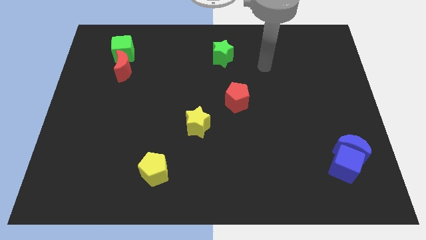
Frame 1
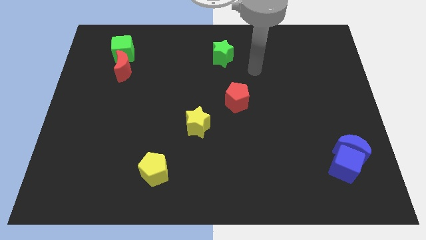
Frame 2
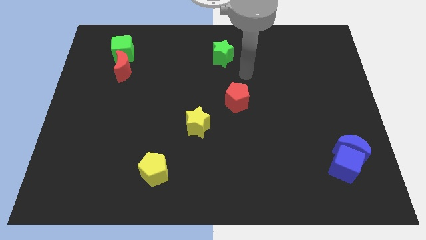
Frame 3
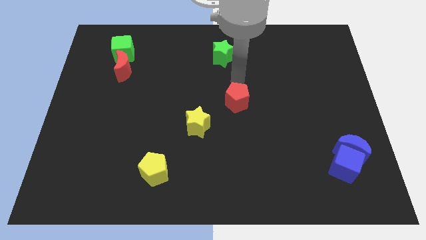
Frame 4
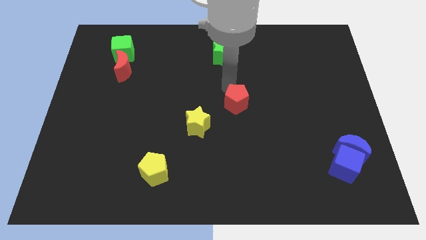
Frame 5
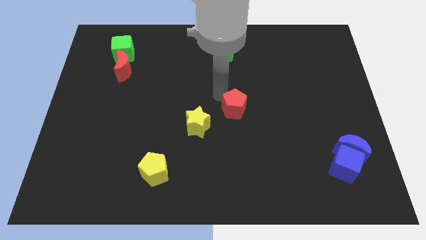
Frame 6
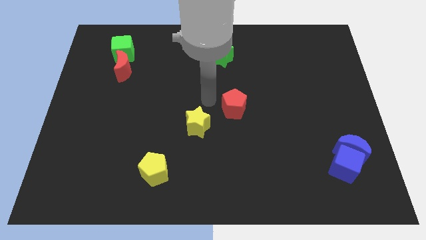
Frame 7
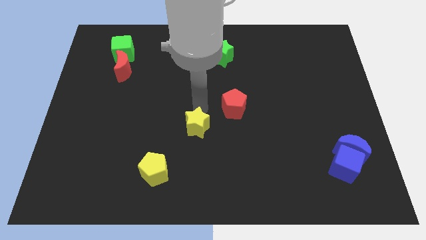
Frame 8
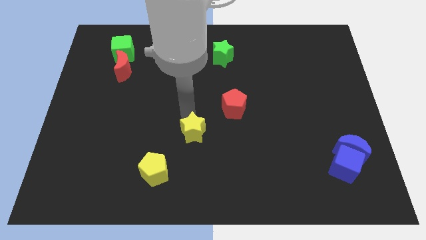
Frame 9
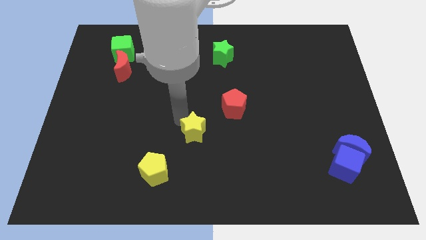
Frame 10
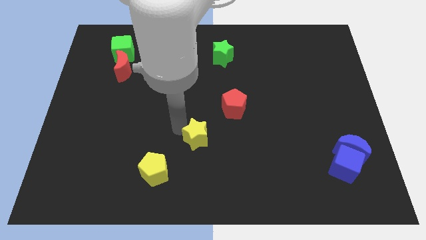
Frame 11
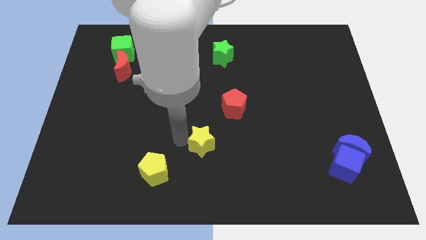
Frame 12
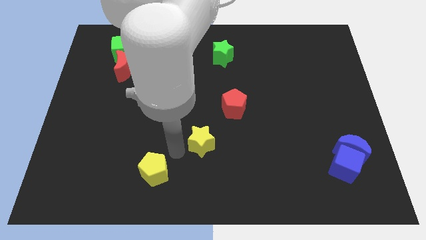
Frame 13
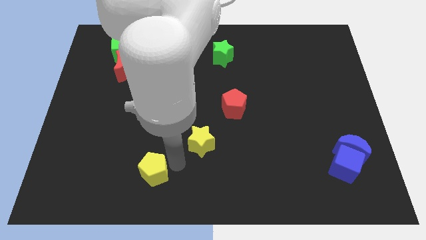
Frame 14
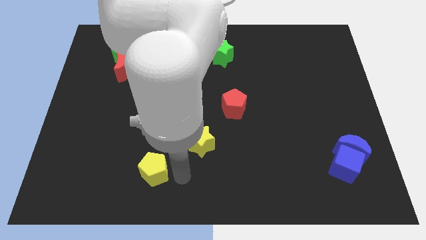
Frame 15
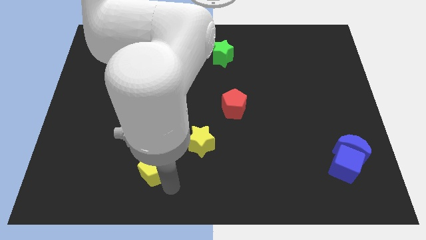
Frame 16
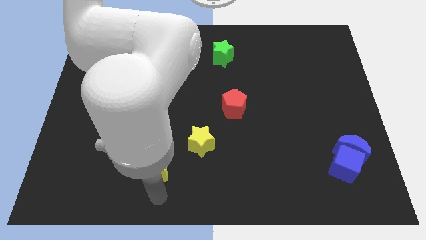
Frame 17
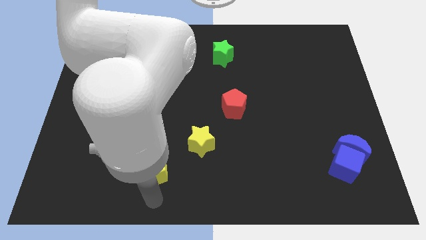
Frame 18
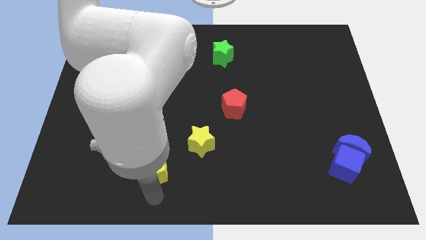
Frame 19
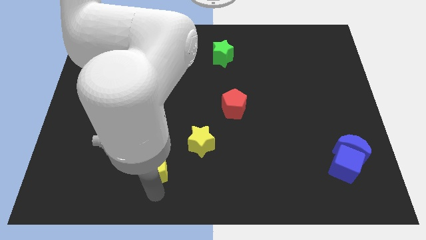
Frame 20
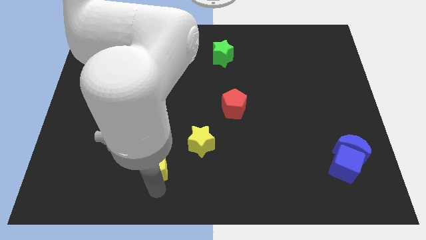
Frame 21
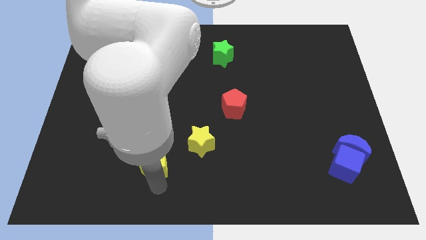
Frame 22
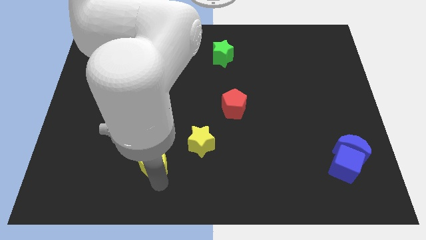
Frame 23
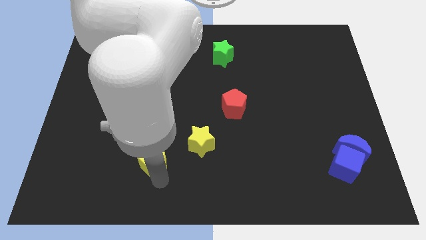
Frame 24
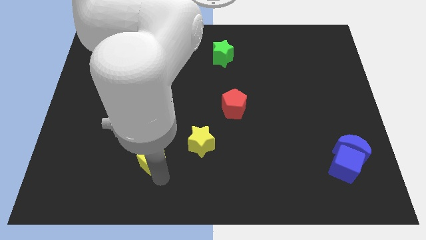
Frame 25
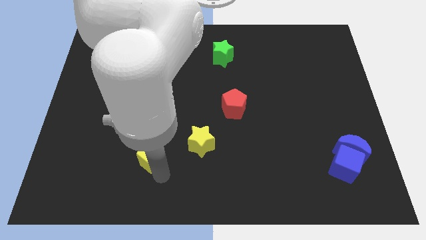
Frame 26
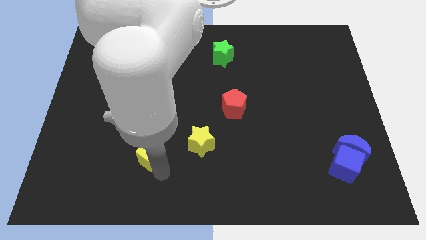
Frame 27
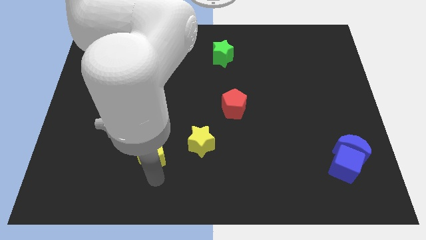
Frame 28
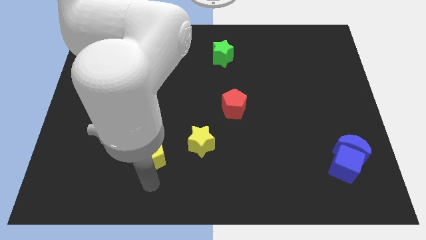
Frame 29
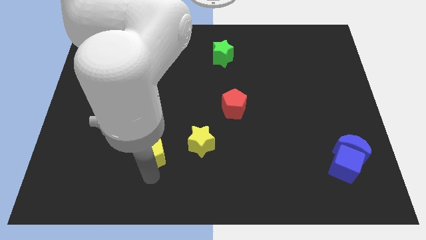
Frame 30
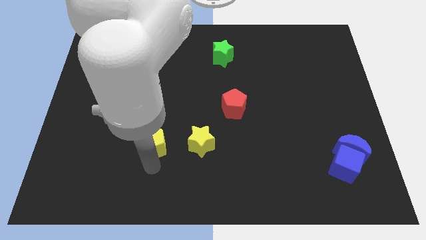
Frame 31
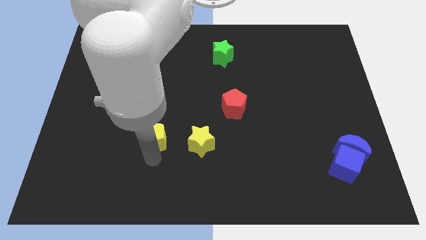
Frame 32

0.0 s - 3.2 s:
move the yellow pentagon upwards slightly

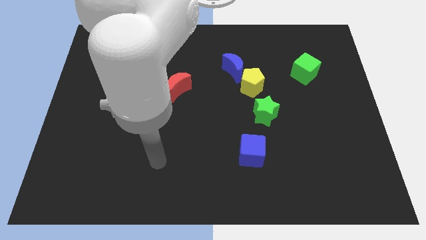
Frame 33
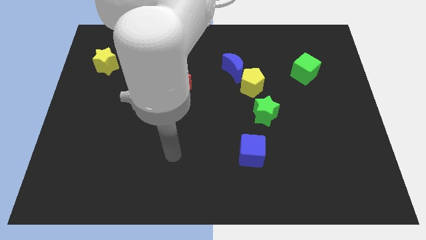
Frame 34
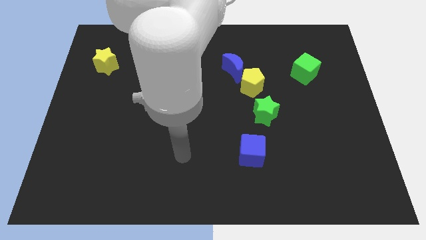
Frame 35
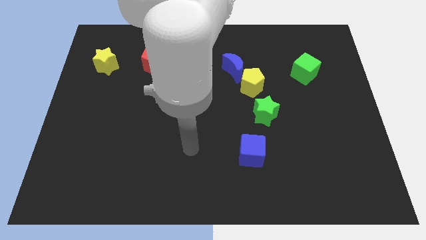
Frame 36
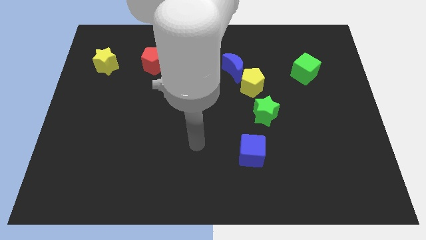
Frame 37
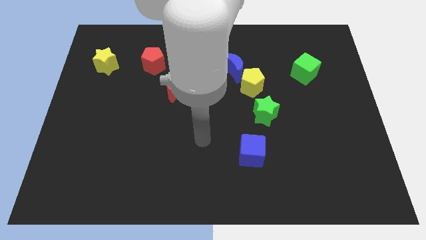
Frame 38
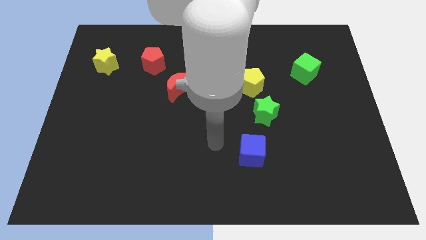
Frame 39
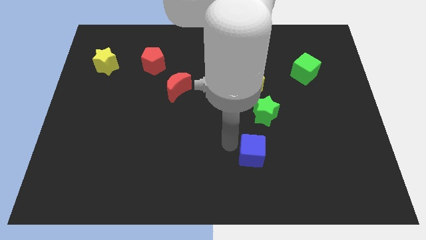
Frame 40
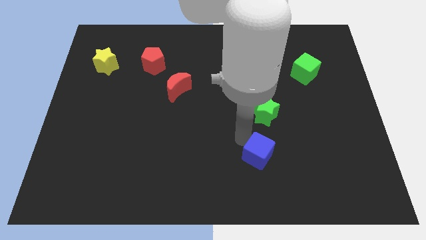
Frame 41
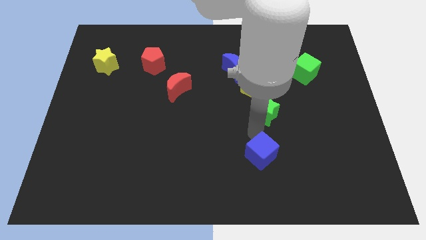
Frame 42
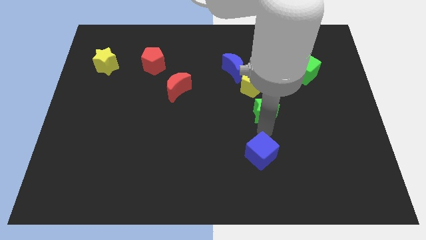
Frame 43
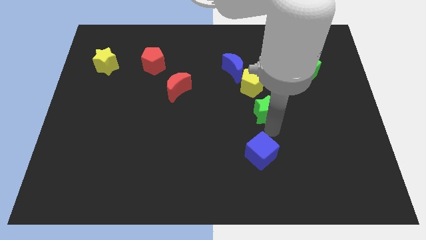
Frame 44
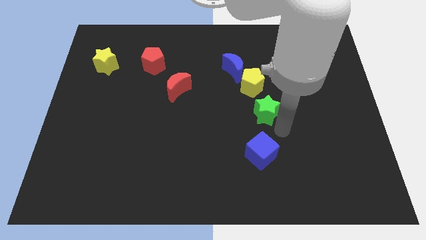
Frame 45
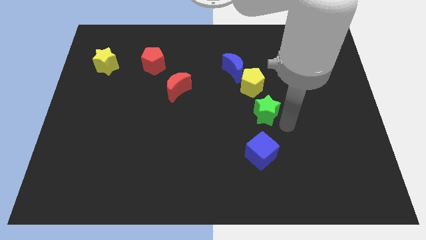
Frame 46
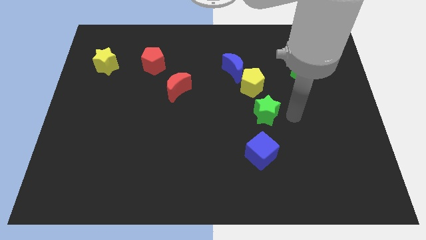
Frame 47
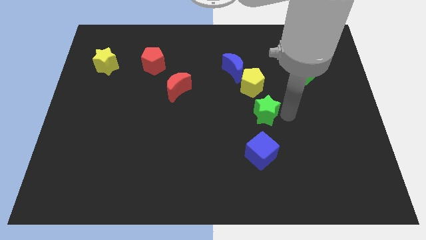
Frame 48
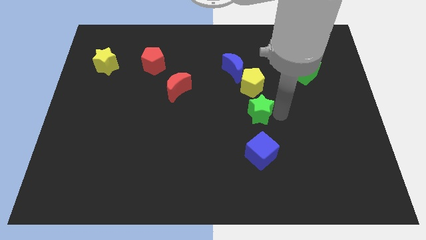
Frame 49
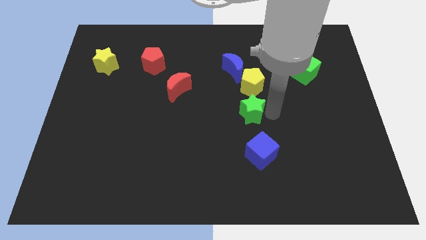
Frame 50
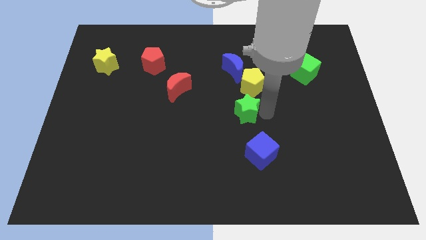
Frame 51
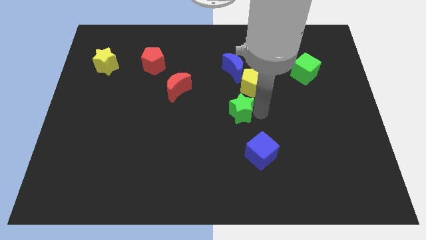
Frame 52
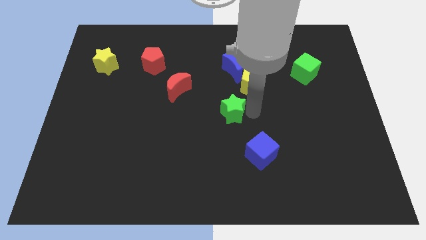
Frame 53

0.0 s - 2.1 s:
slightly push the green star left

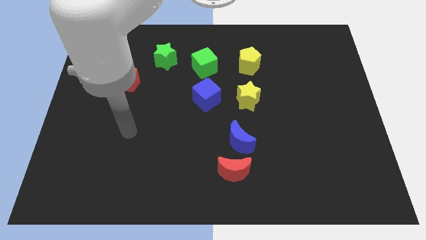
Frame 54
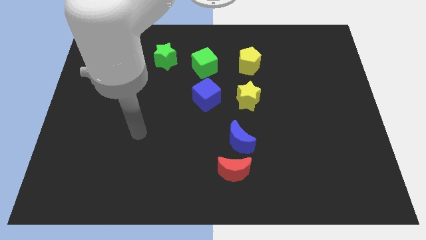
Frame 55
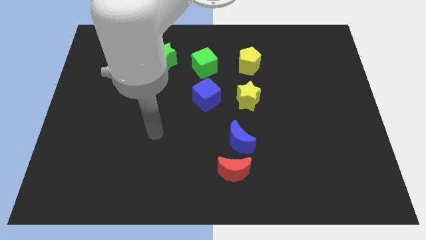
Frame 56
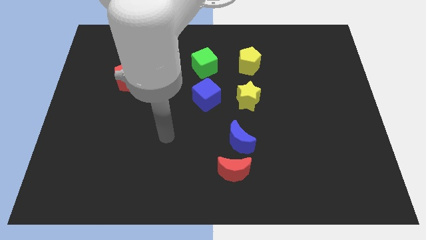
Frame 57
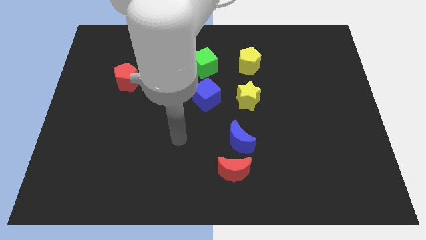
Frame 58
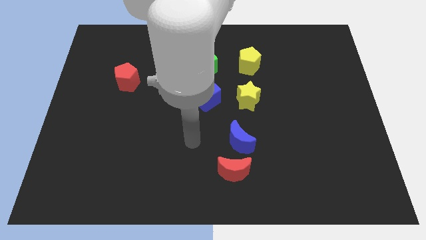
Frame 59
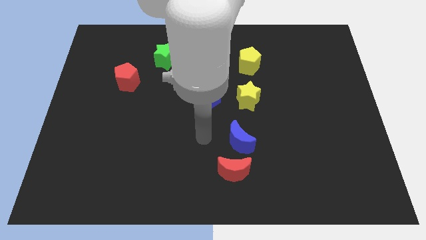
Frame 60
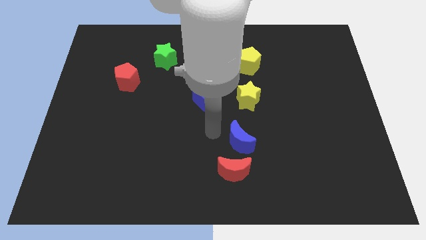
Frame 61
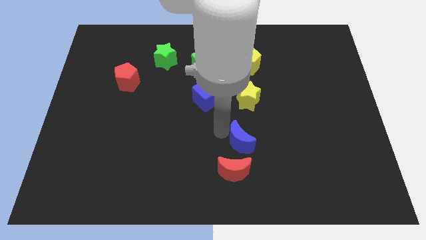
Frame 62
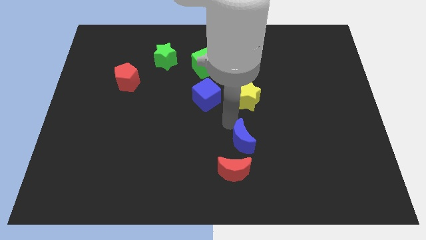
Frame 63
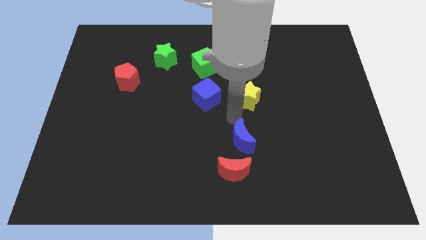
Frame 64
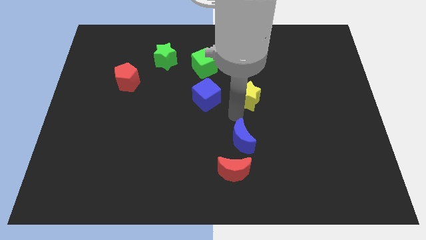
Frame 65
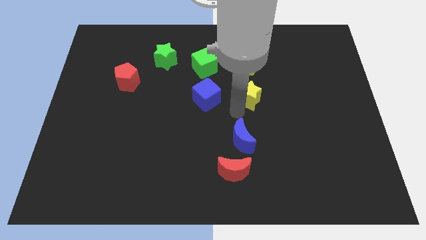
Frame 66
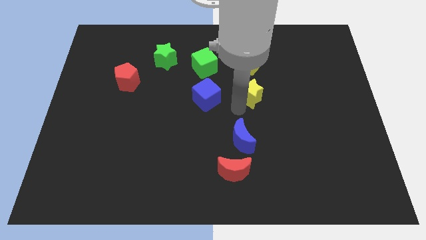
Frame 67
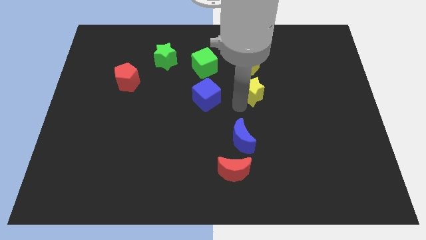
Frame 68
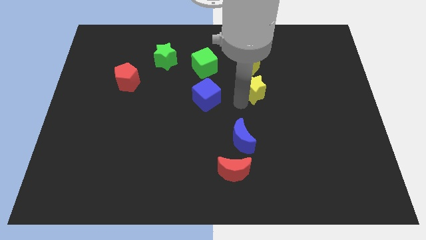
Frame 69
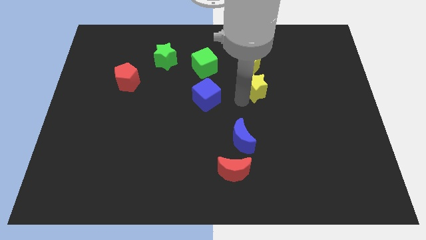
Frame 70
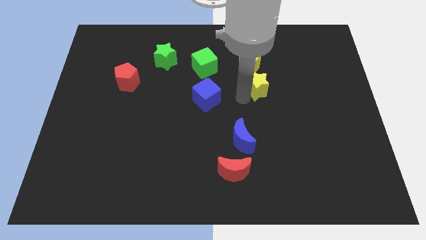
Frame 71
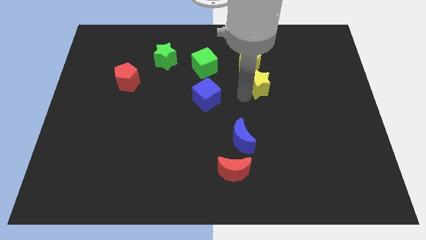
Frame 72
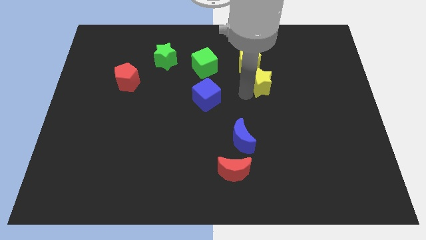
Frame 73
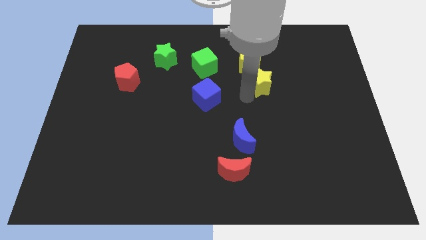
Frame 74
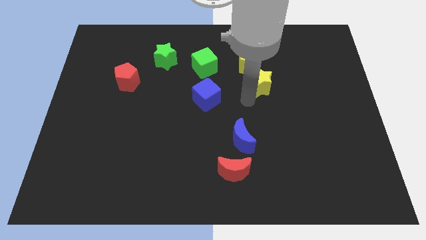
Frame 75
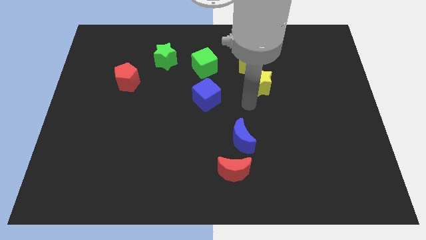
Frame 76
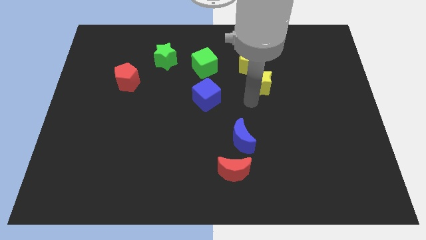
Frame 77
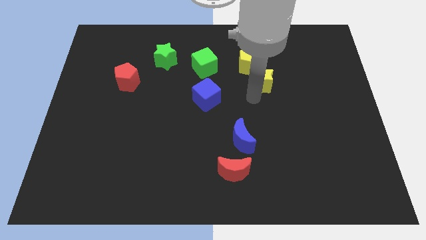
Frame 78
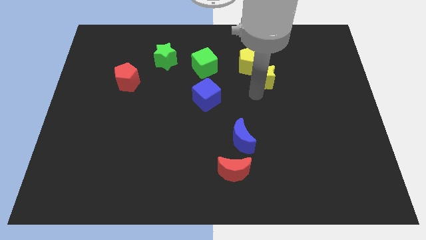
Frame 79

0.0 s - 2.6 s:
slightly push the yellow star diagonally upwards and to the right
